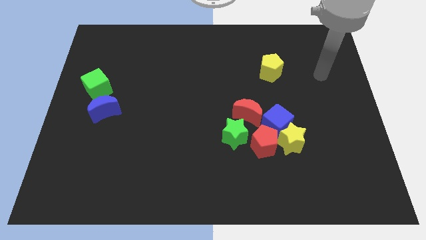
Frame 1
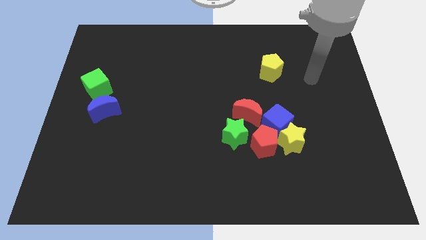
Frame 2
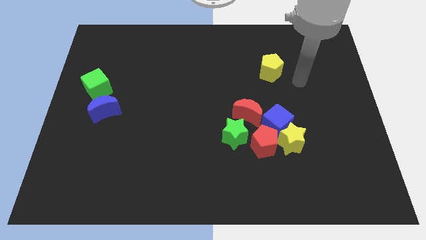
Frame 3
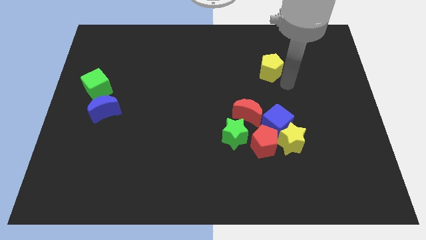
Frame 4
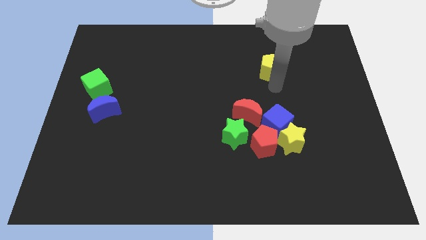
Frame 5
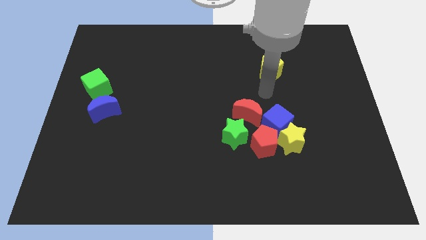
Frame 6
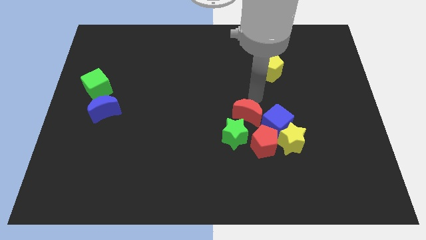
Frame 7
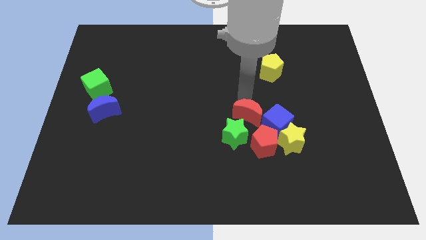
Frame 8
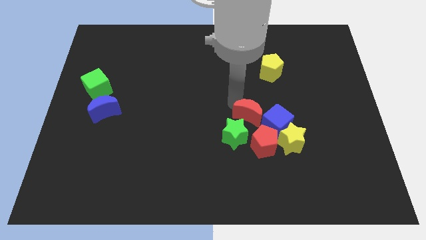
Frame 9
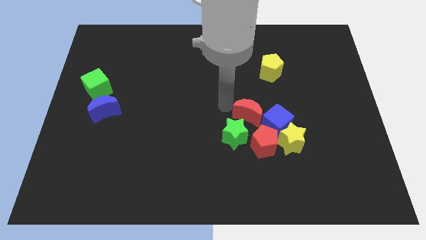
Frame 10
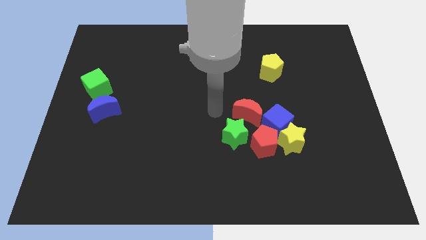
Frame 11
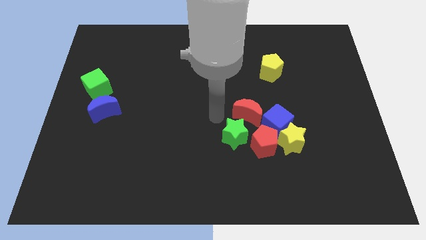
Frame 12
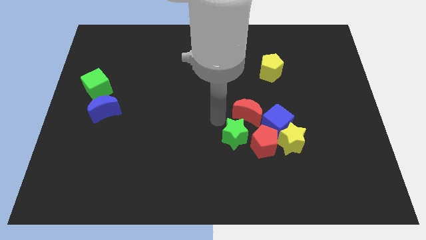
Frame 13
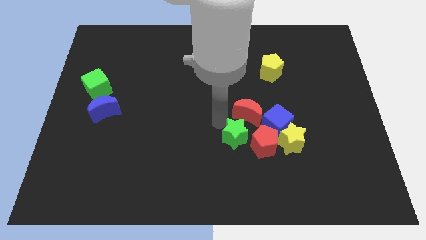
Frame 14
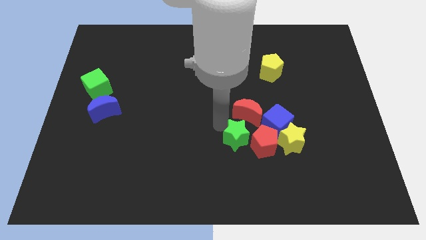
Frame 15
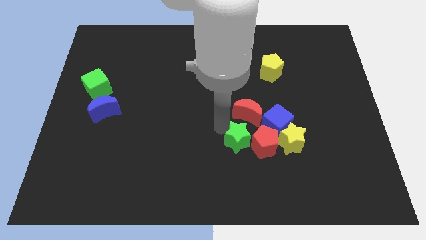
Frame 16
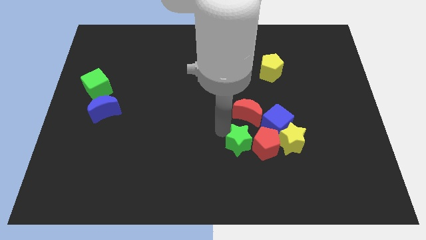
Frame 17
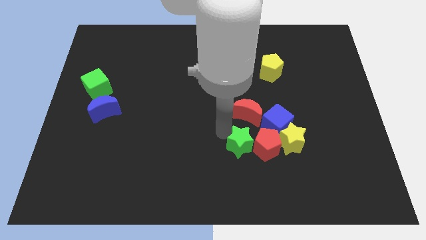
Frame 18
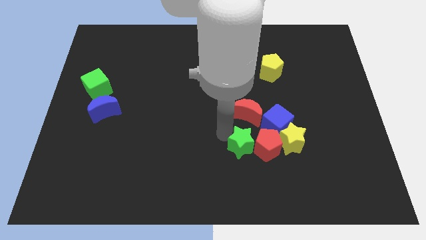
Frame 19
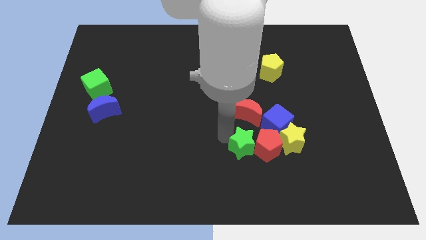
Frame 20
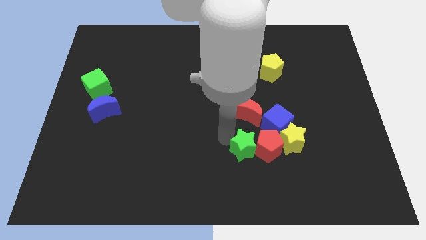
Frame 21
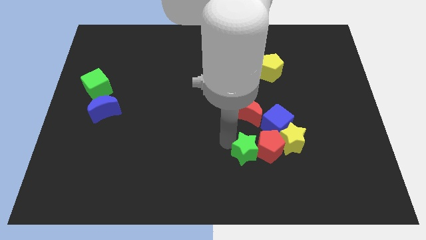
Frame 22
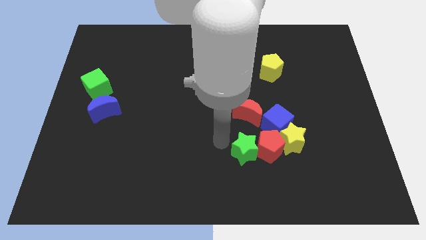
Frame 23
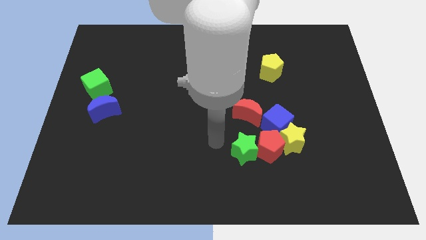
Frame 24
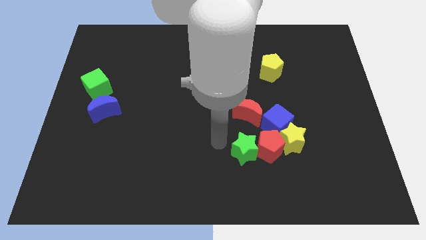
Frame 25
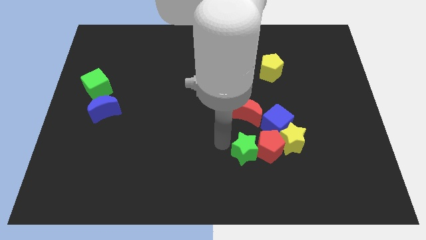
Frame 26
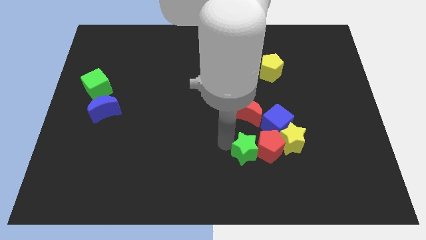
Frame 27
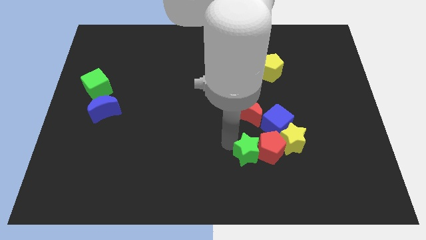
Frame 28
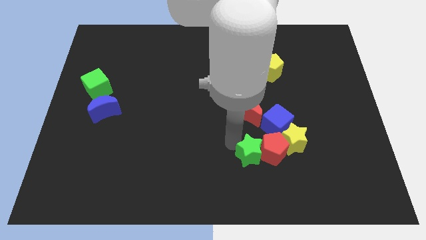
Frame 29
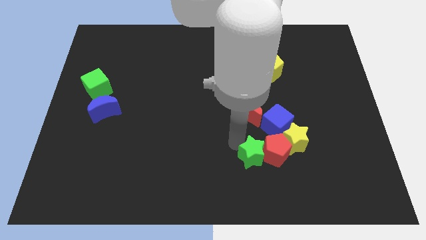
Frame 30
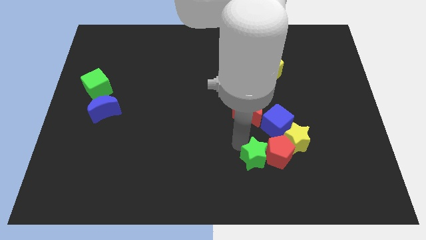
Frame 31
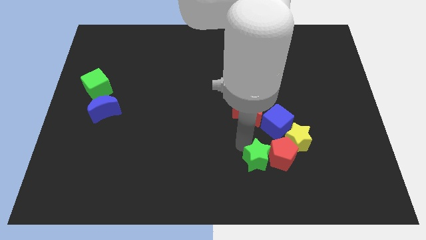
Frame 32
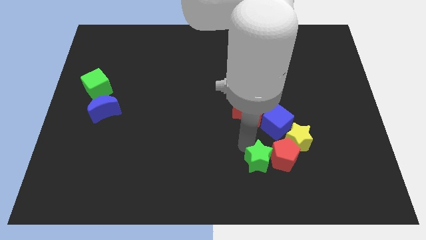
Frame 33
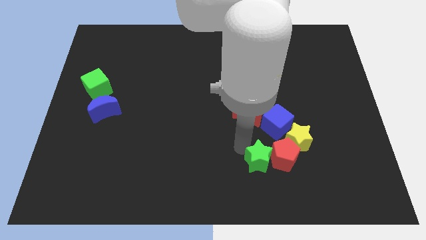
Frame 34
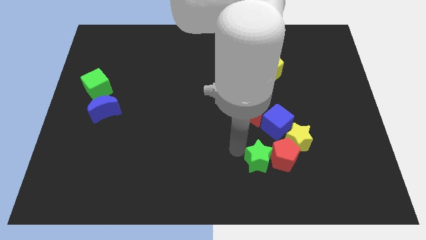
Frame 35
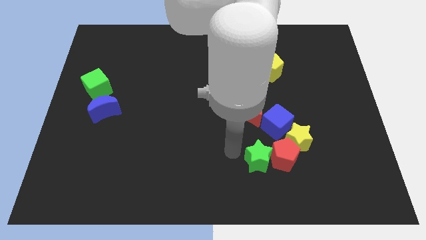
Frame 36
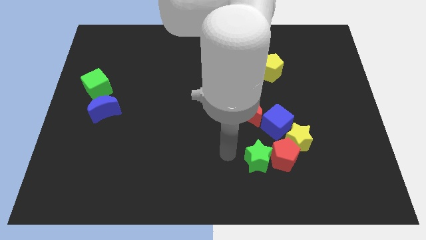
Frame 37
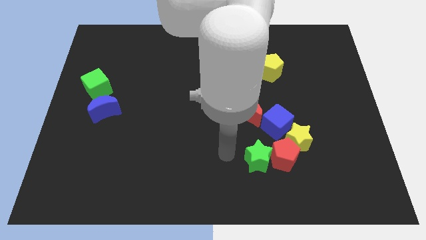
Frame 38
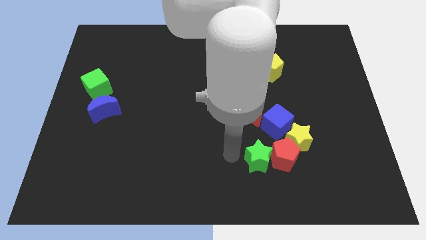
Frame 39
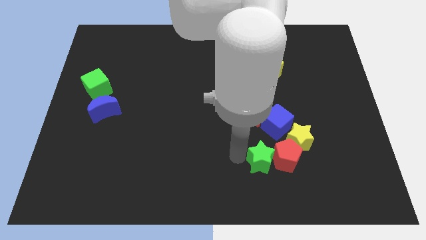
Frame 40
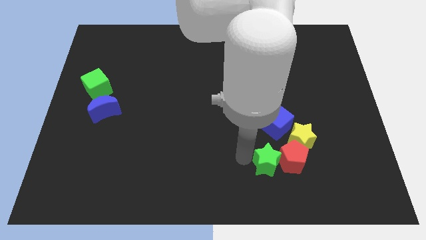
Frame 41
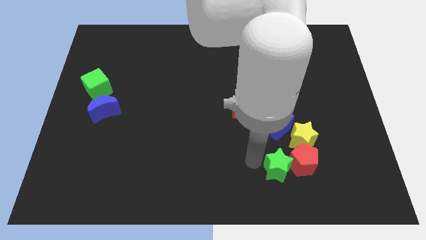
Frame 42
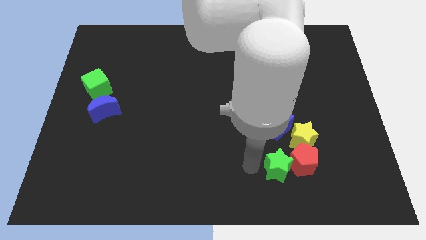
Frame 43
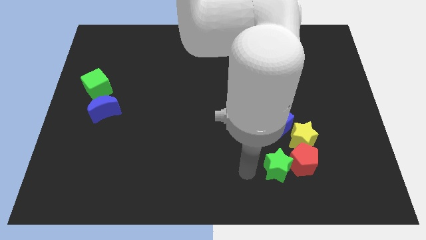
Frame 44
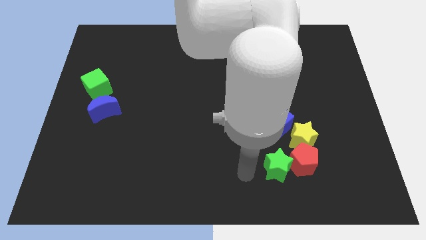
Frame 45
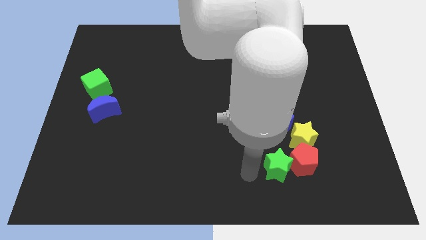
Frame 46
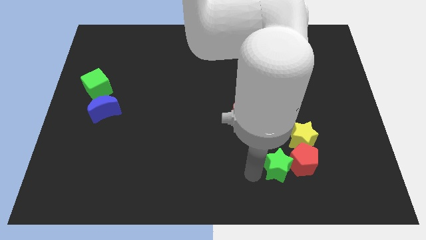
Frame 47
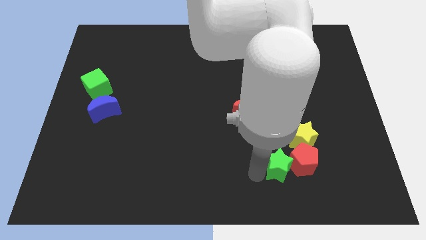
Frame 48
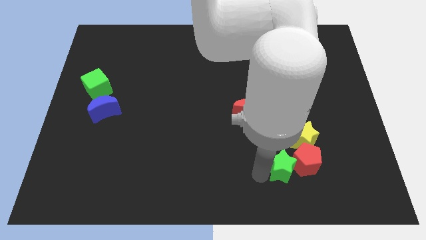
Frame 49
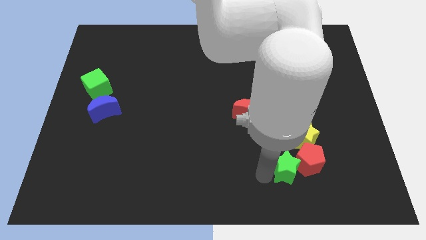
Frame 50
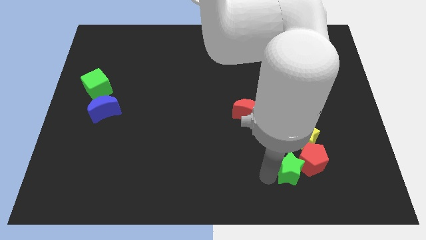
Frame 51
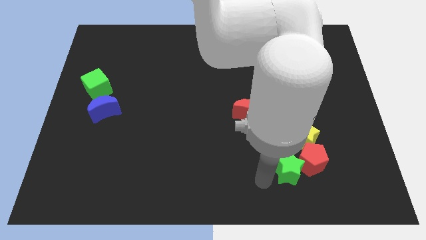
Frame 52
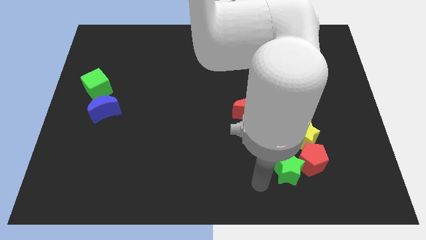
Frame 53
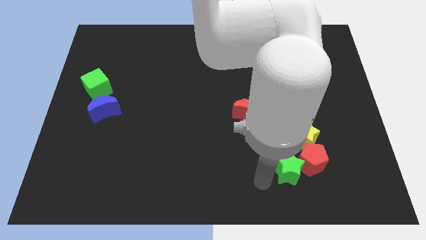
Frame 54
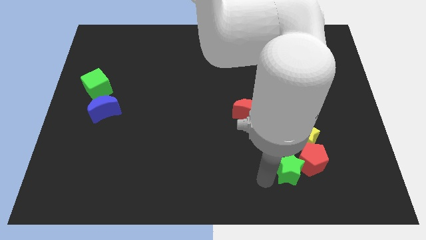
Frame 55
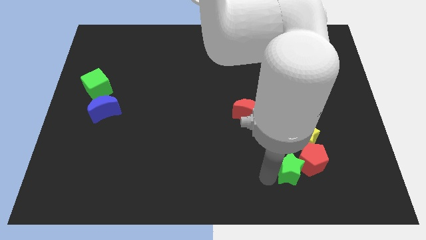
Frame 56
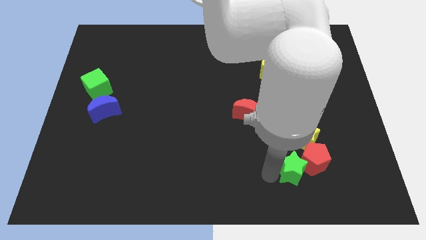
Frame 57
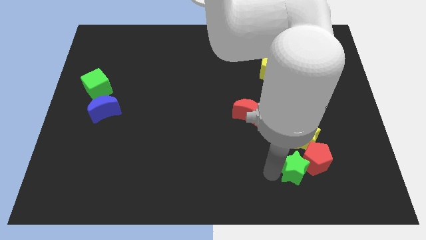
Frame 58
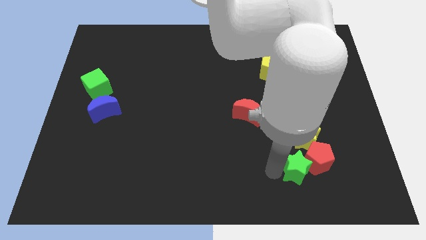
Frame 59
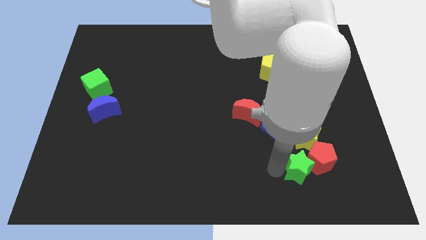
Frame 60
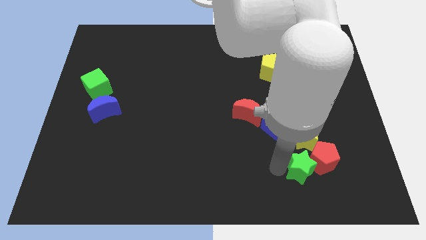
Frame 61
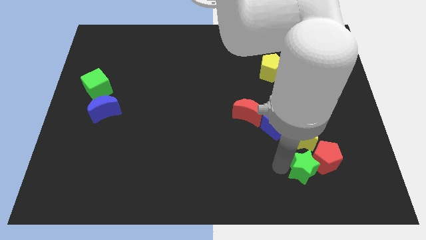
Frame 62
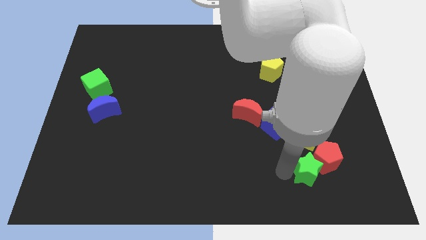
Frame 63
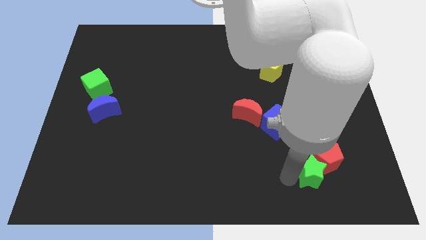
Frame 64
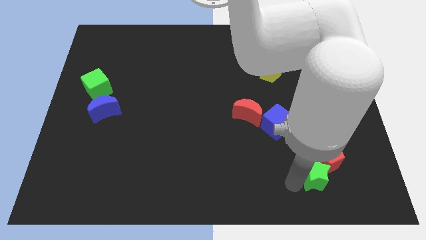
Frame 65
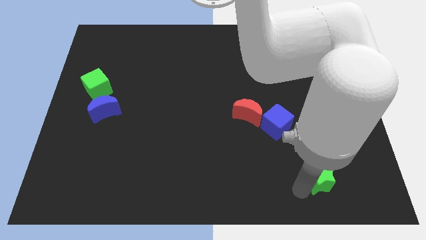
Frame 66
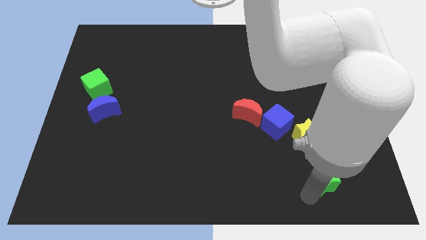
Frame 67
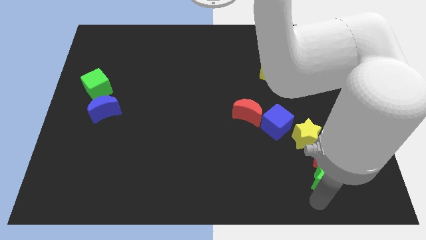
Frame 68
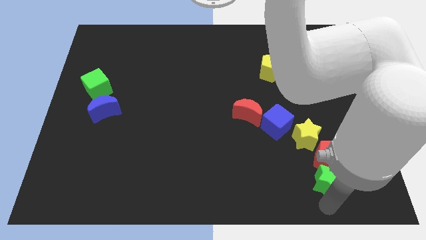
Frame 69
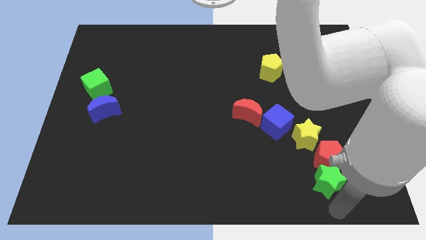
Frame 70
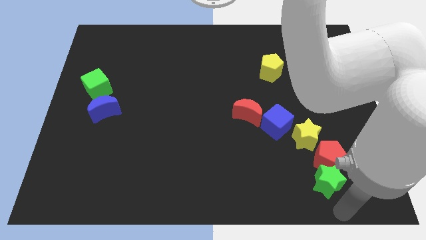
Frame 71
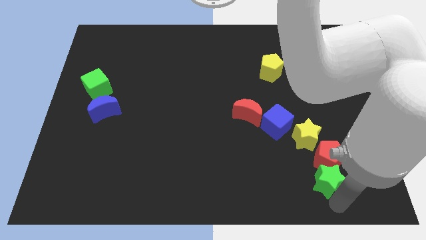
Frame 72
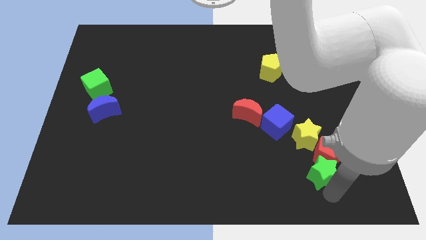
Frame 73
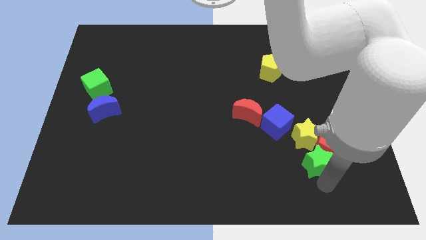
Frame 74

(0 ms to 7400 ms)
put the green star diagonally down and to the right of the blue cube

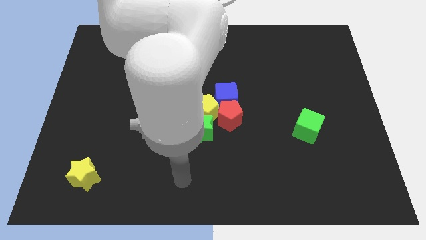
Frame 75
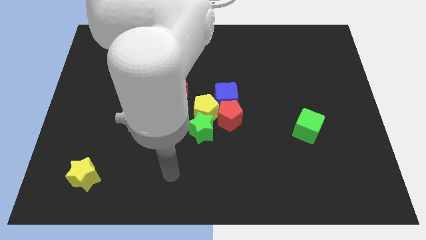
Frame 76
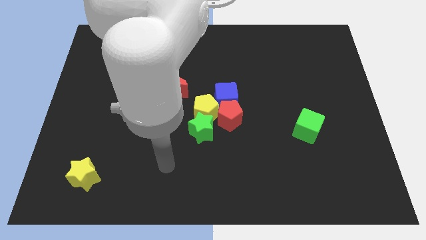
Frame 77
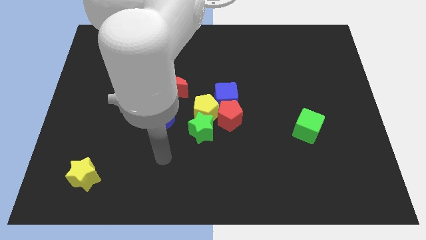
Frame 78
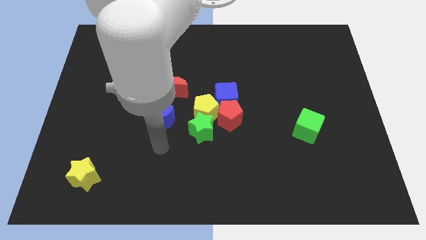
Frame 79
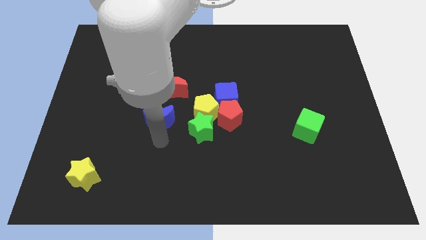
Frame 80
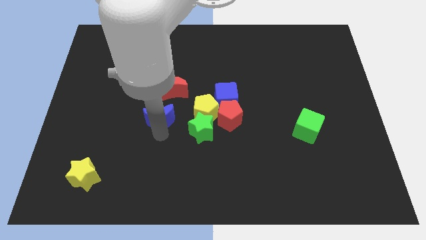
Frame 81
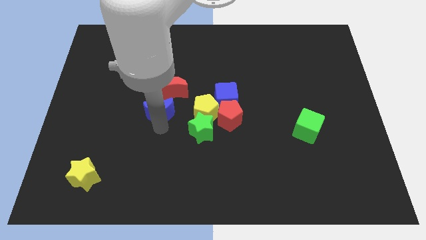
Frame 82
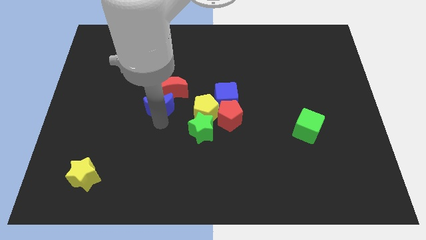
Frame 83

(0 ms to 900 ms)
put the blue moon left of the blue cube
